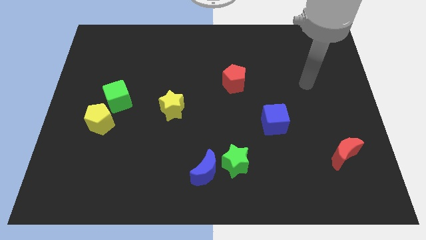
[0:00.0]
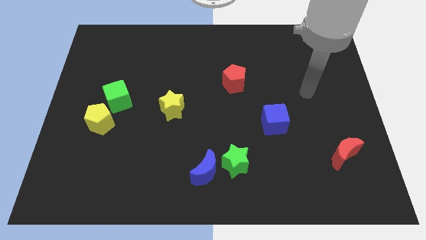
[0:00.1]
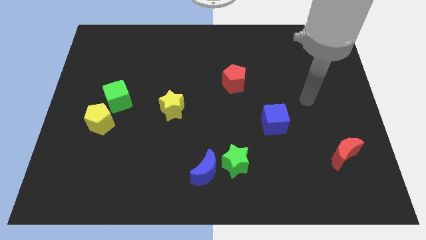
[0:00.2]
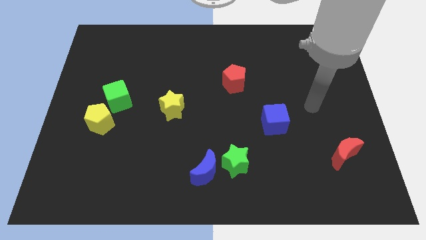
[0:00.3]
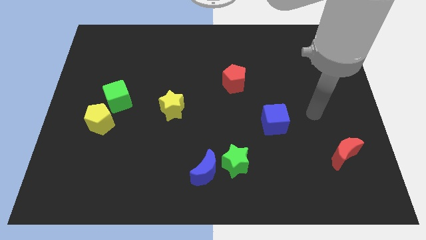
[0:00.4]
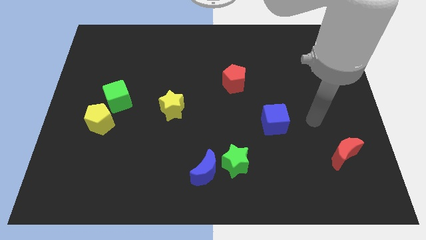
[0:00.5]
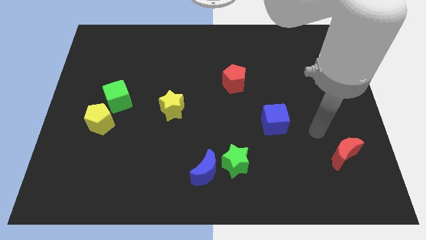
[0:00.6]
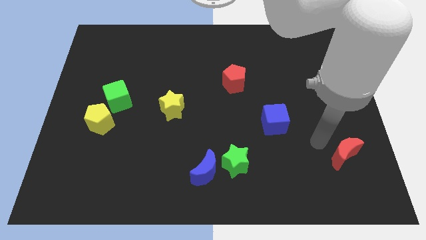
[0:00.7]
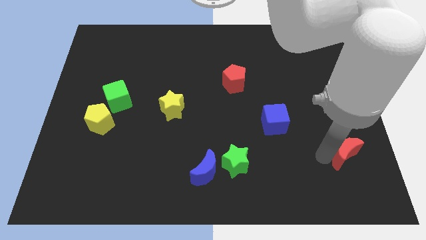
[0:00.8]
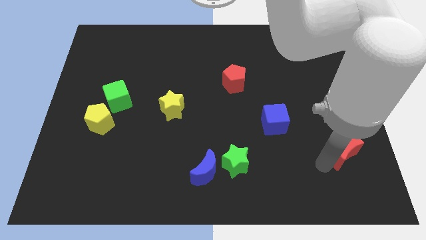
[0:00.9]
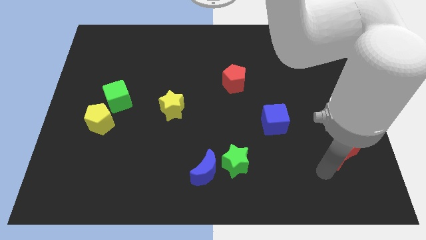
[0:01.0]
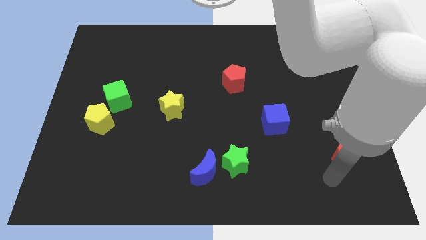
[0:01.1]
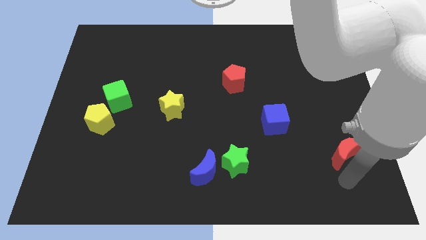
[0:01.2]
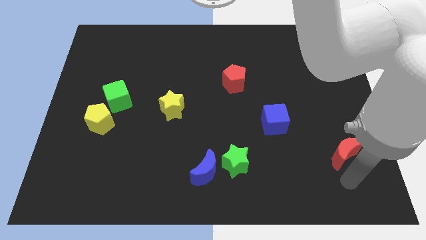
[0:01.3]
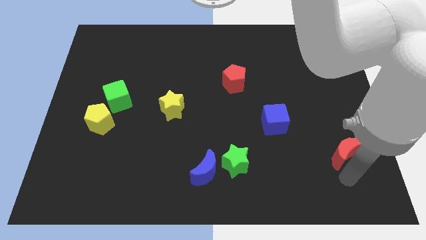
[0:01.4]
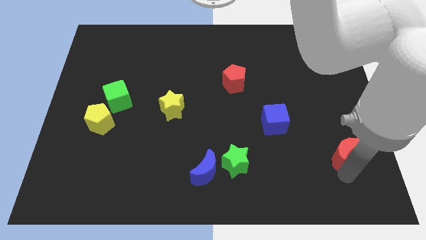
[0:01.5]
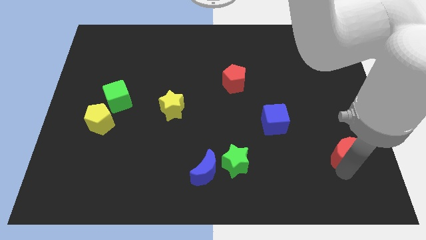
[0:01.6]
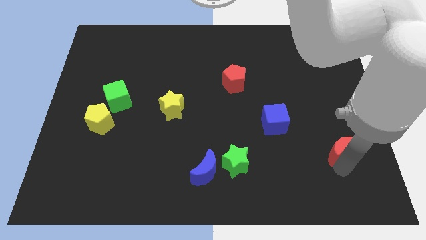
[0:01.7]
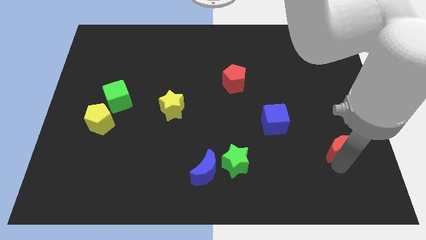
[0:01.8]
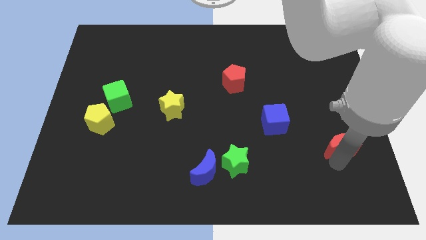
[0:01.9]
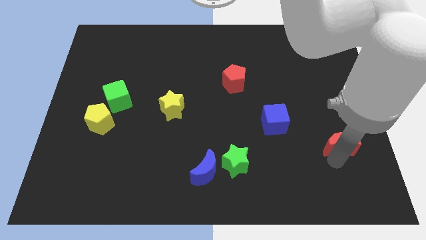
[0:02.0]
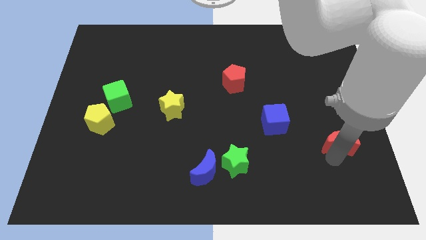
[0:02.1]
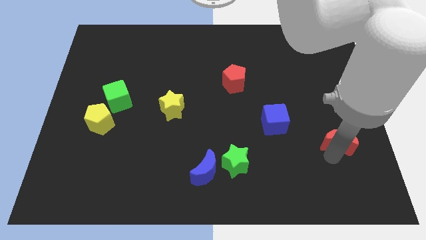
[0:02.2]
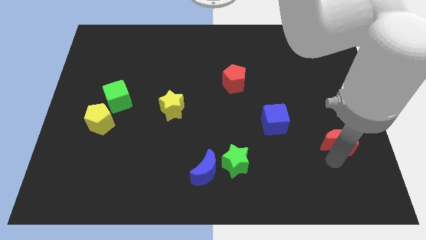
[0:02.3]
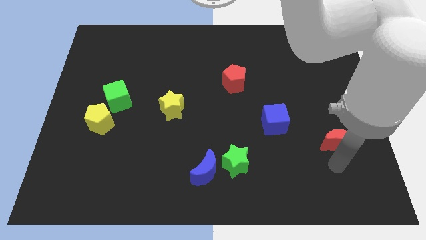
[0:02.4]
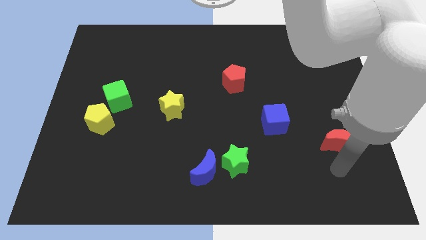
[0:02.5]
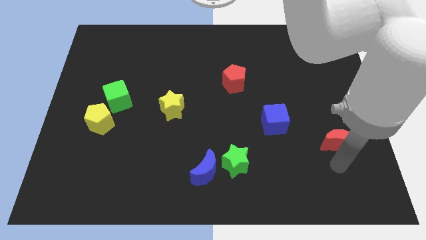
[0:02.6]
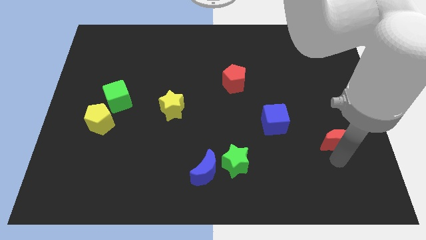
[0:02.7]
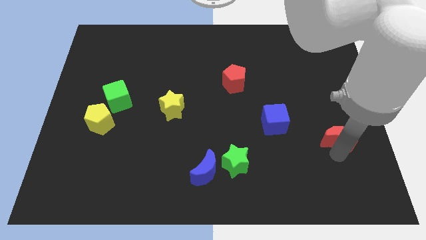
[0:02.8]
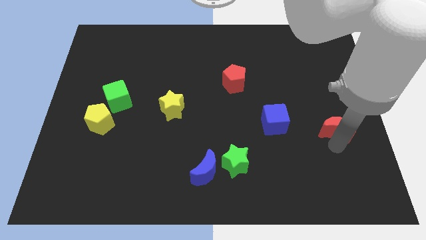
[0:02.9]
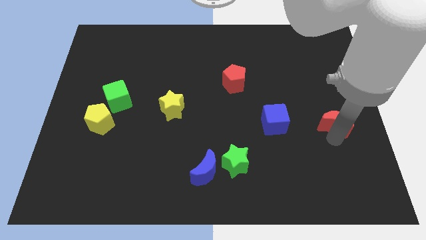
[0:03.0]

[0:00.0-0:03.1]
slide the red moon somewhat up

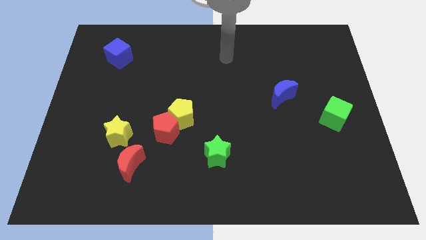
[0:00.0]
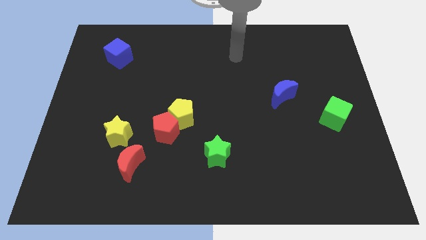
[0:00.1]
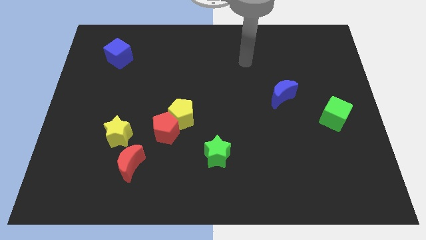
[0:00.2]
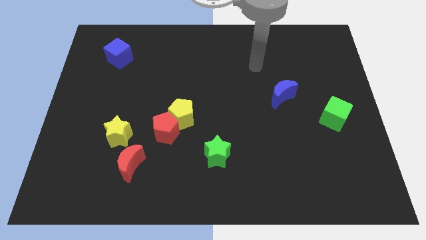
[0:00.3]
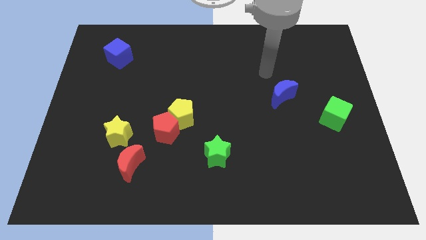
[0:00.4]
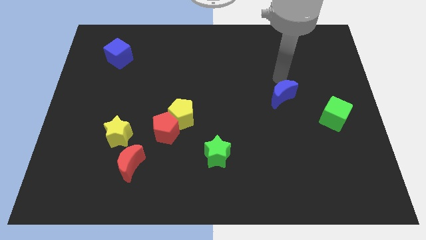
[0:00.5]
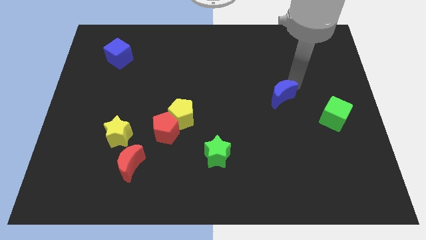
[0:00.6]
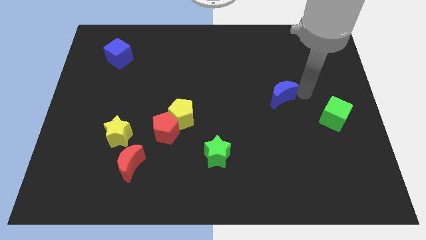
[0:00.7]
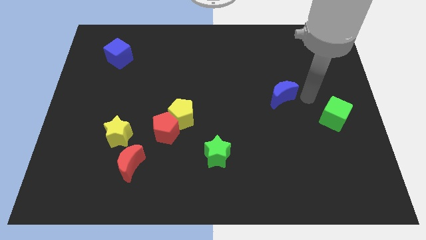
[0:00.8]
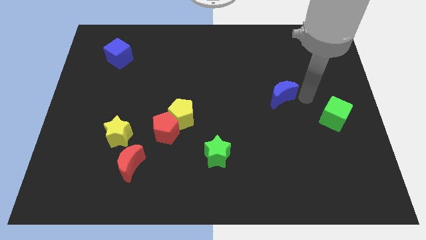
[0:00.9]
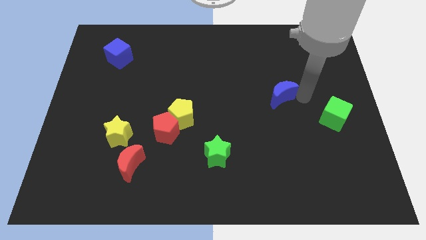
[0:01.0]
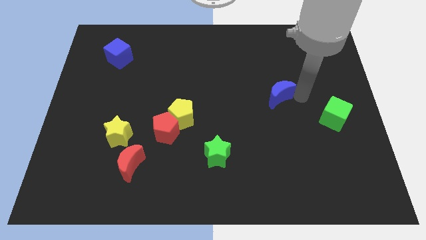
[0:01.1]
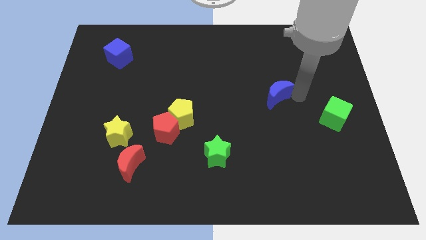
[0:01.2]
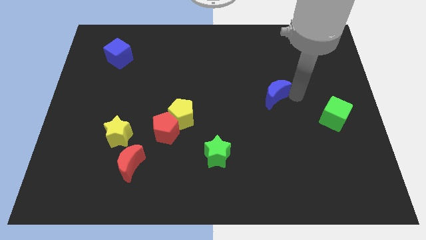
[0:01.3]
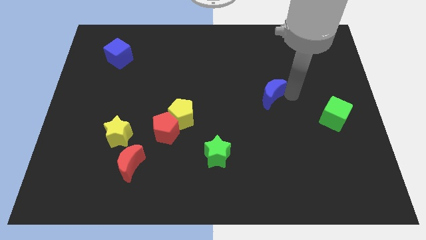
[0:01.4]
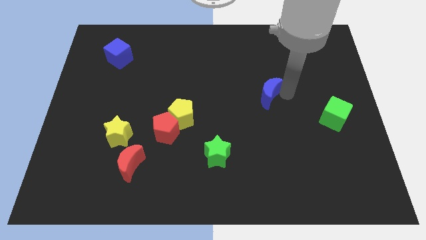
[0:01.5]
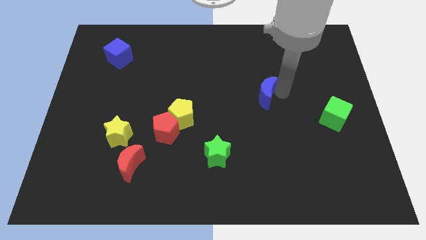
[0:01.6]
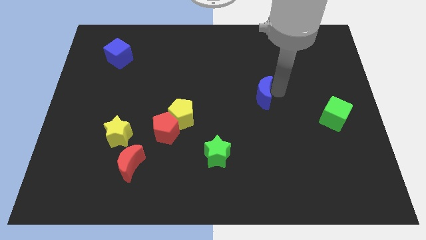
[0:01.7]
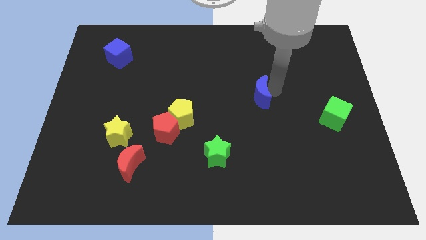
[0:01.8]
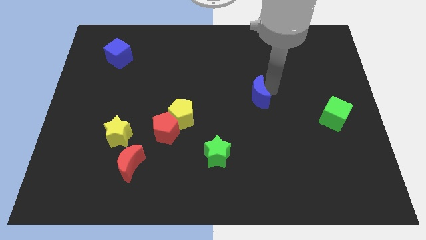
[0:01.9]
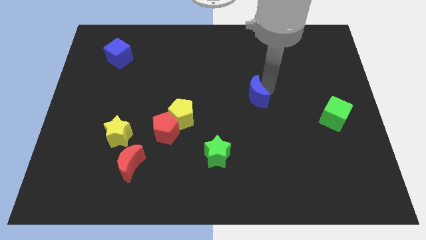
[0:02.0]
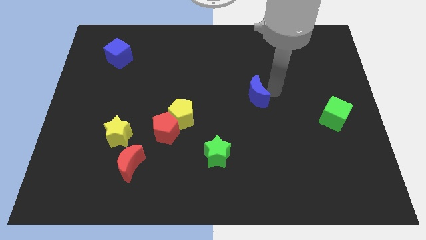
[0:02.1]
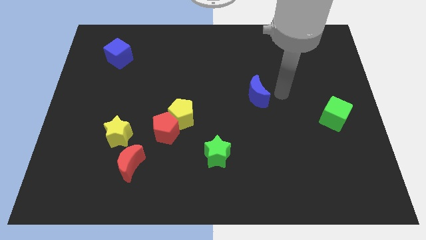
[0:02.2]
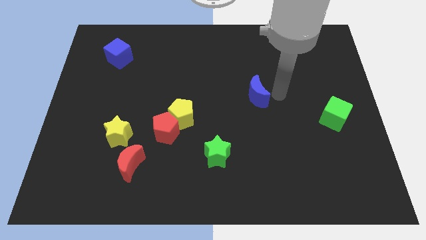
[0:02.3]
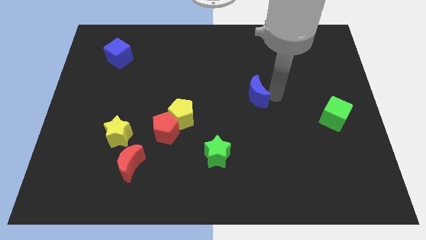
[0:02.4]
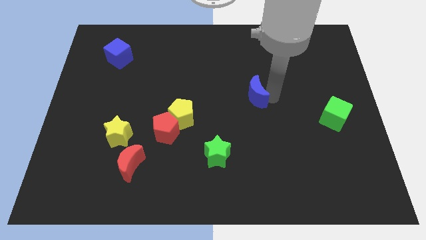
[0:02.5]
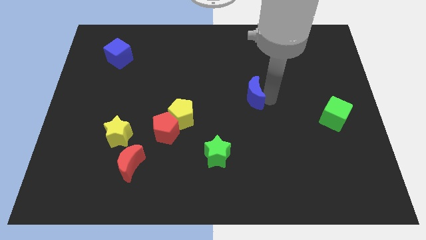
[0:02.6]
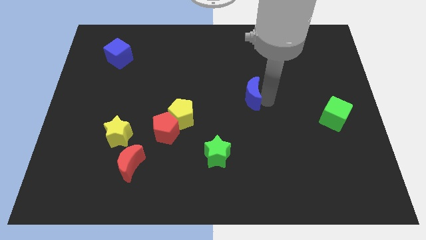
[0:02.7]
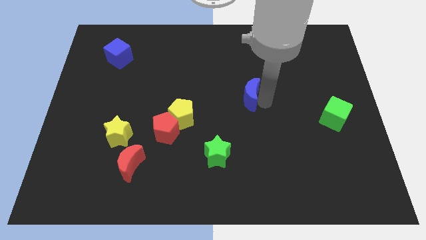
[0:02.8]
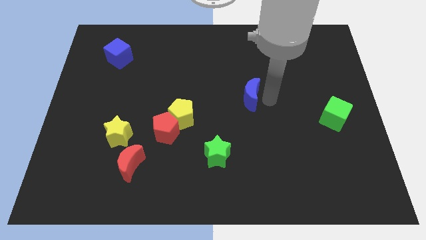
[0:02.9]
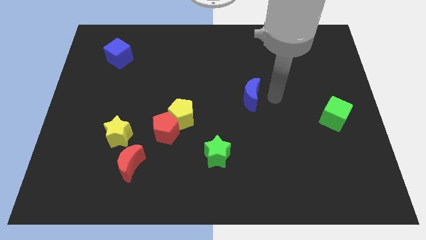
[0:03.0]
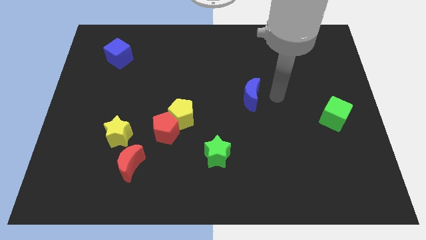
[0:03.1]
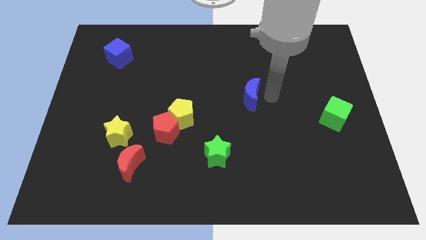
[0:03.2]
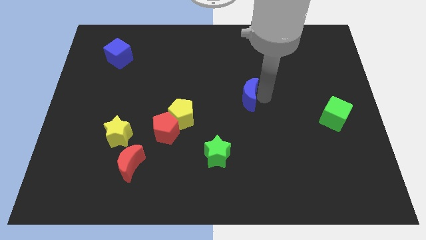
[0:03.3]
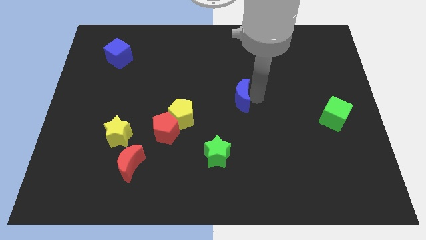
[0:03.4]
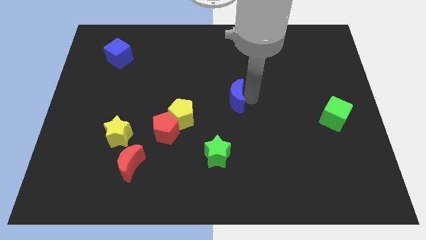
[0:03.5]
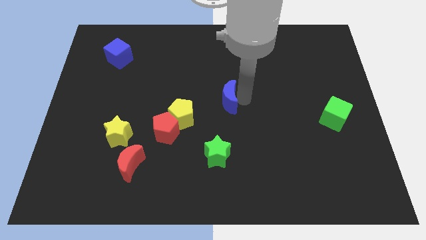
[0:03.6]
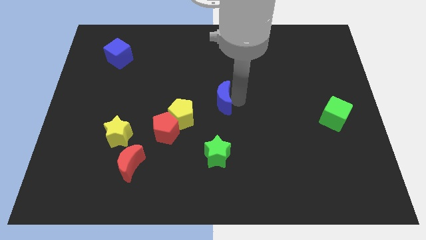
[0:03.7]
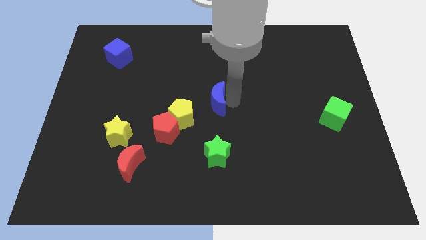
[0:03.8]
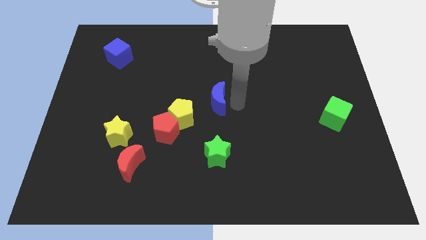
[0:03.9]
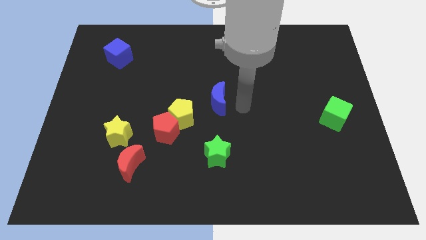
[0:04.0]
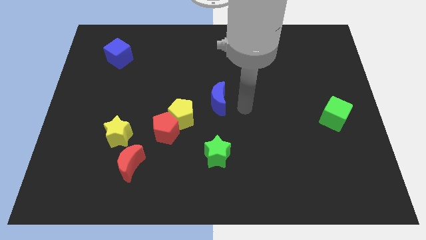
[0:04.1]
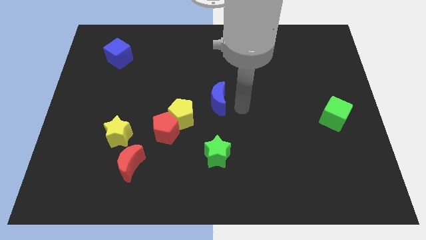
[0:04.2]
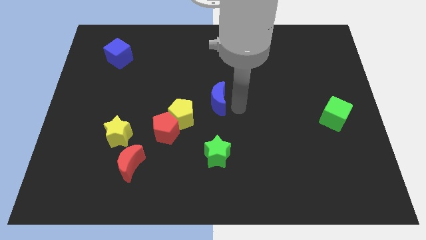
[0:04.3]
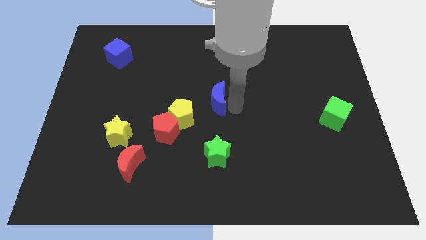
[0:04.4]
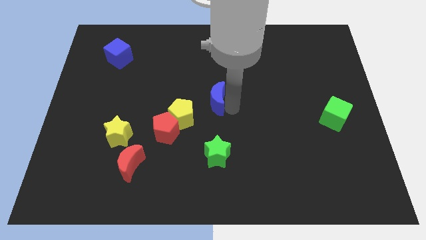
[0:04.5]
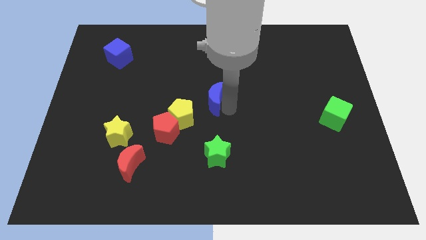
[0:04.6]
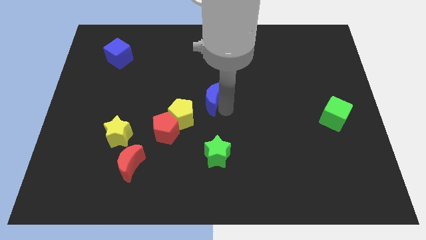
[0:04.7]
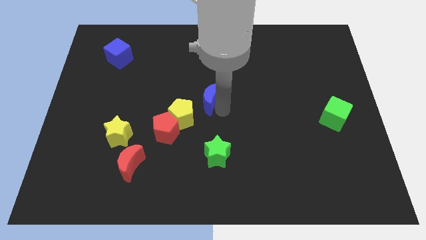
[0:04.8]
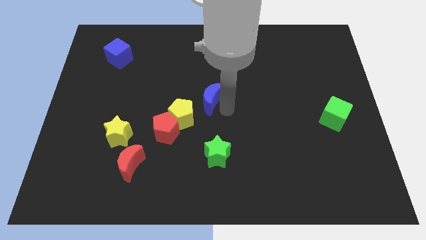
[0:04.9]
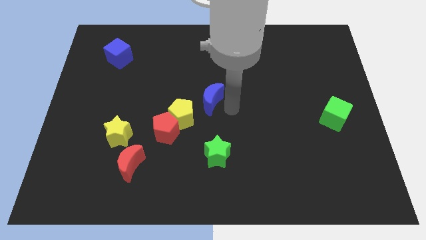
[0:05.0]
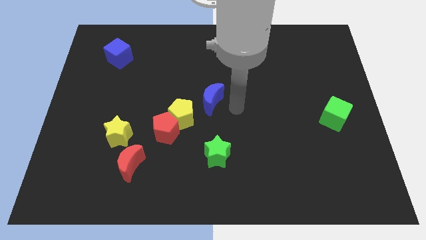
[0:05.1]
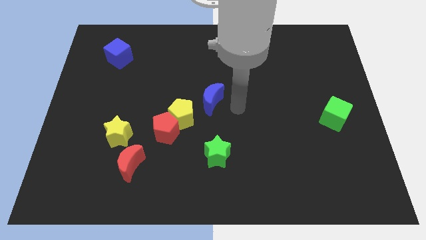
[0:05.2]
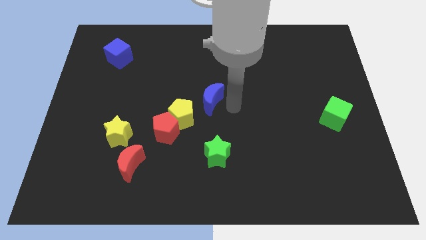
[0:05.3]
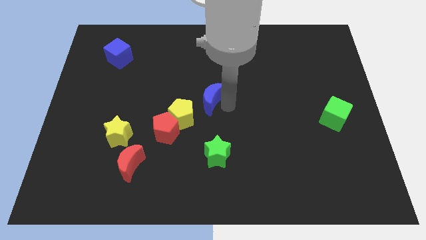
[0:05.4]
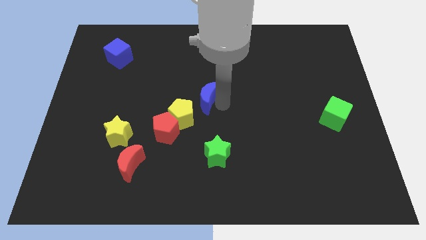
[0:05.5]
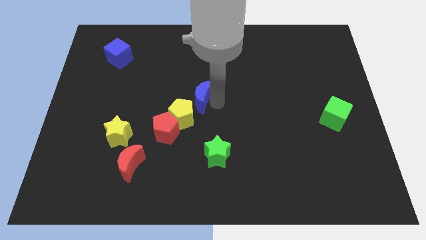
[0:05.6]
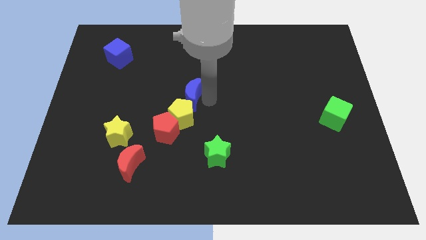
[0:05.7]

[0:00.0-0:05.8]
move the blue moon to the left
